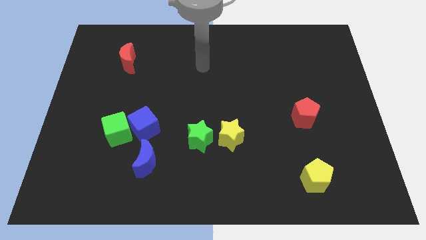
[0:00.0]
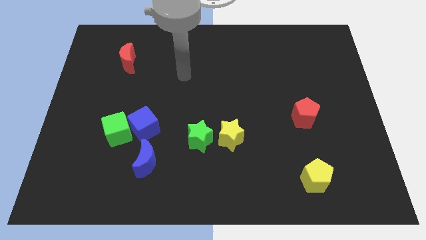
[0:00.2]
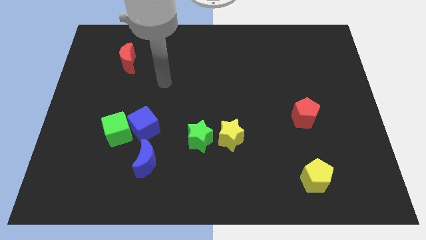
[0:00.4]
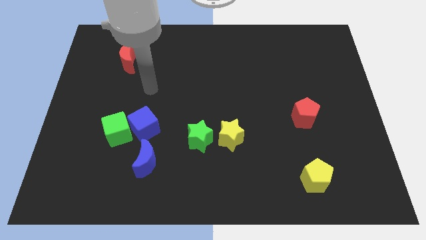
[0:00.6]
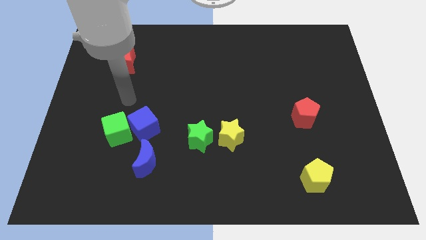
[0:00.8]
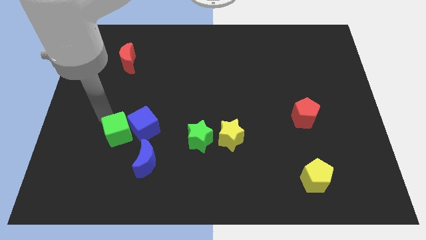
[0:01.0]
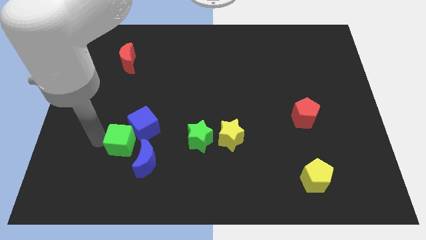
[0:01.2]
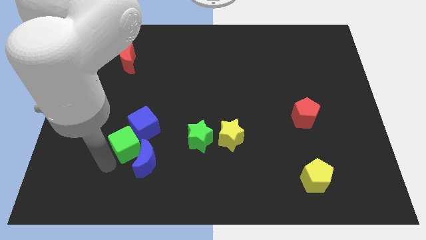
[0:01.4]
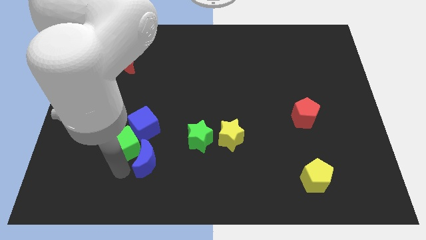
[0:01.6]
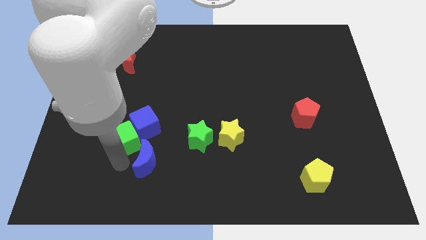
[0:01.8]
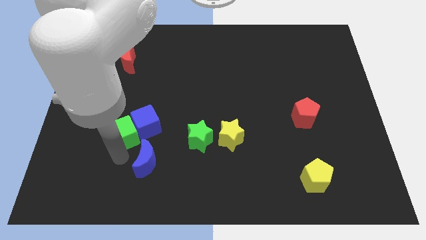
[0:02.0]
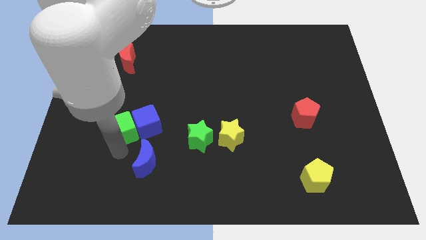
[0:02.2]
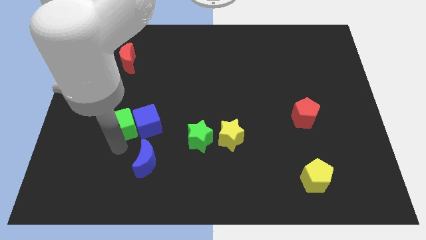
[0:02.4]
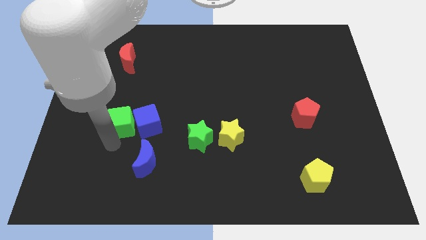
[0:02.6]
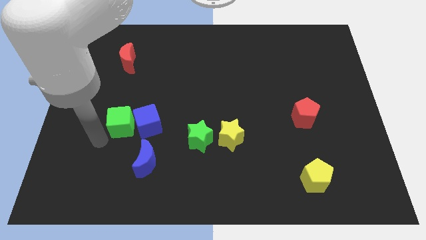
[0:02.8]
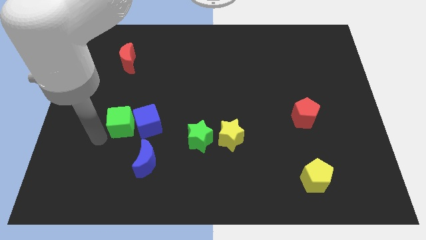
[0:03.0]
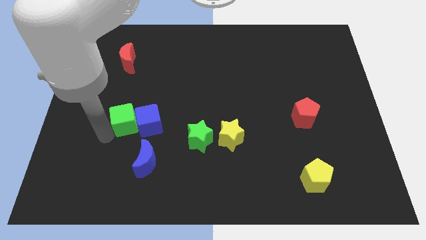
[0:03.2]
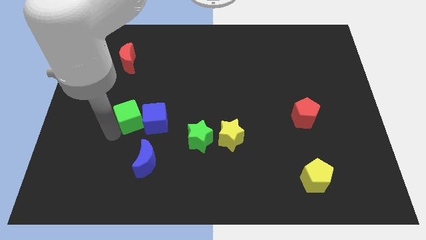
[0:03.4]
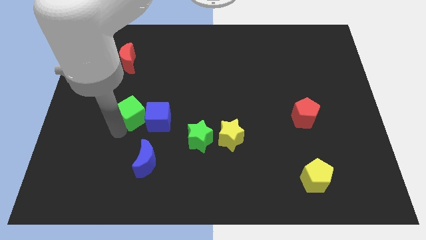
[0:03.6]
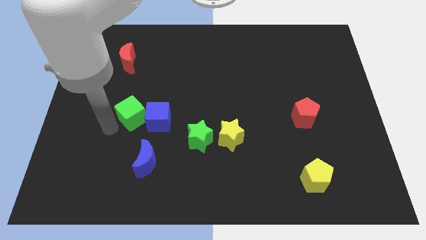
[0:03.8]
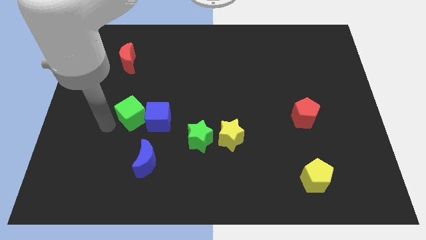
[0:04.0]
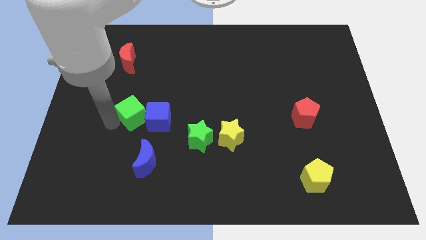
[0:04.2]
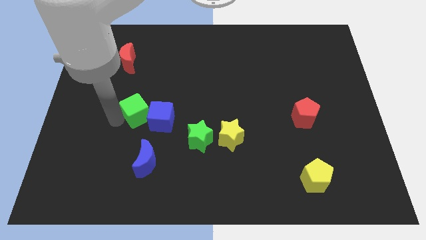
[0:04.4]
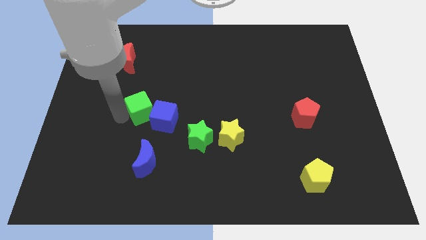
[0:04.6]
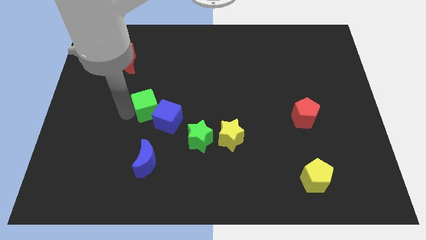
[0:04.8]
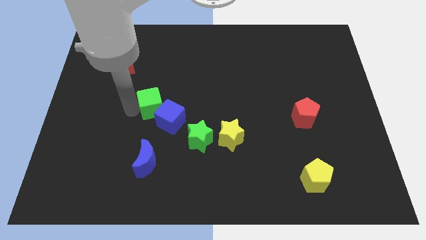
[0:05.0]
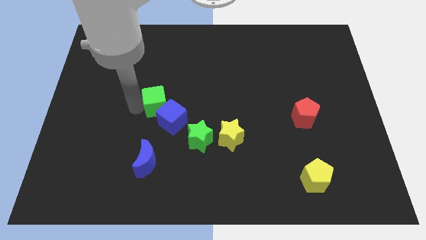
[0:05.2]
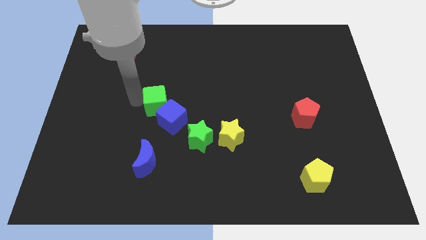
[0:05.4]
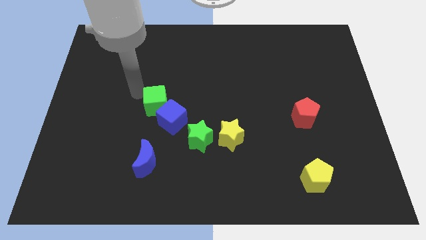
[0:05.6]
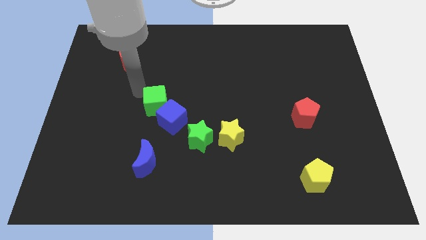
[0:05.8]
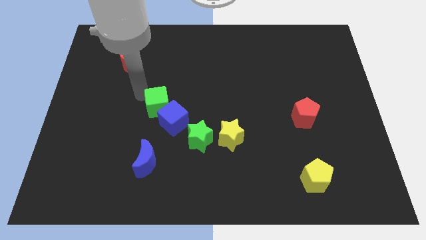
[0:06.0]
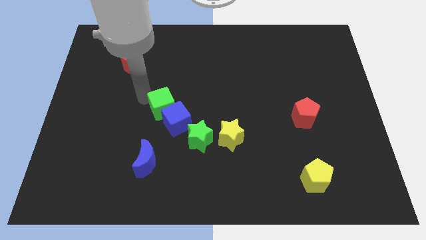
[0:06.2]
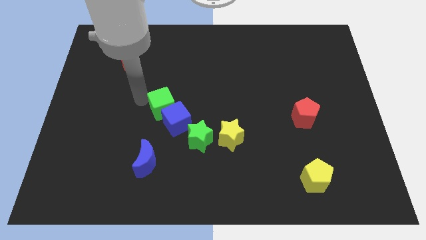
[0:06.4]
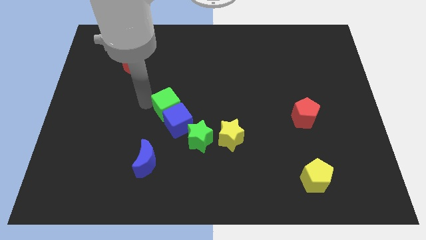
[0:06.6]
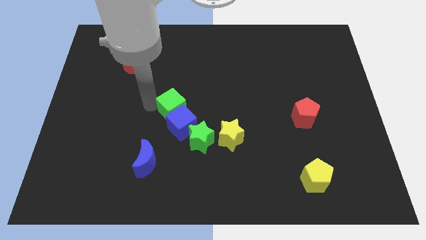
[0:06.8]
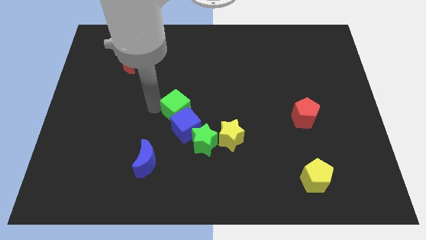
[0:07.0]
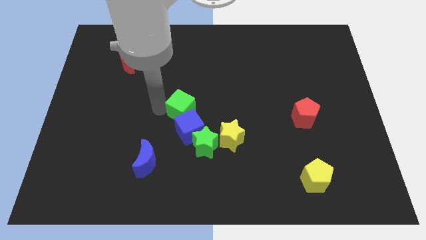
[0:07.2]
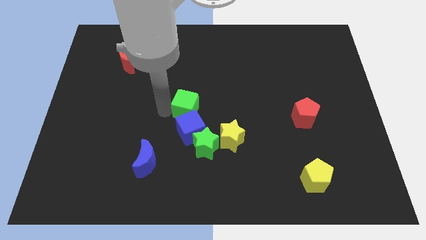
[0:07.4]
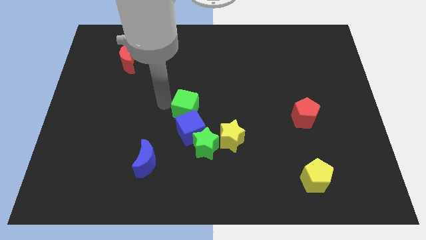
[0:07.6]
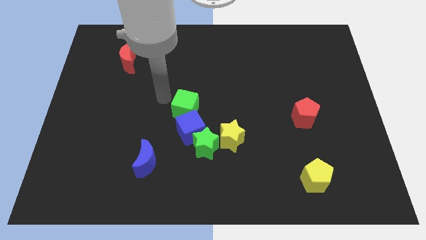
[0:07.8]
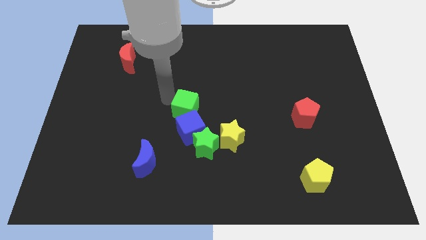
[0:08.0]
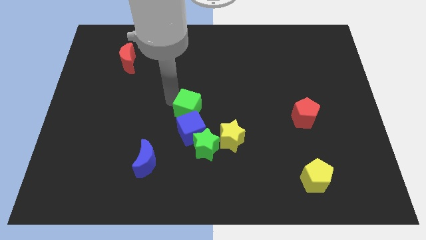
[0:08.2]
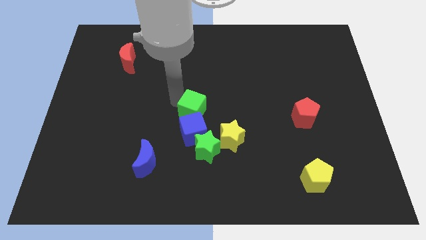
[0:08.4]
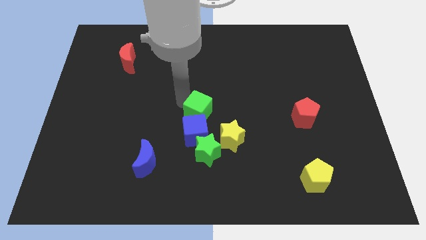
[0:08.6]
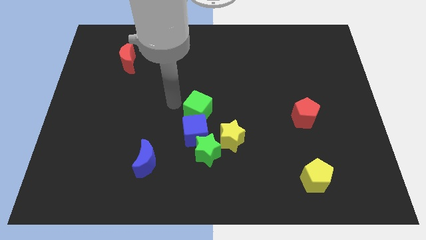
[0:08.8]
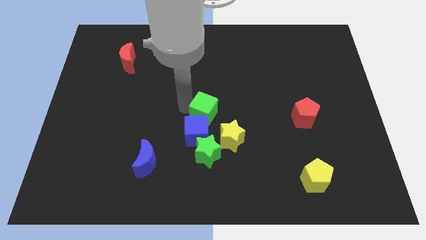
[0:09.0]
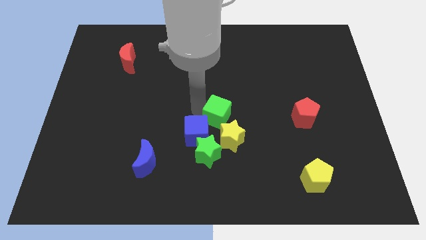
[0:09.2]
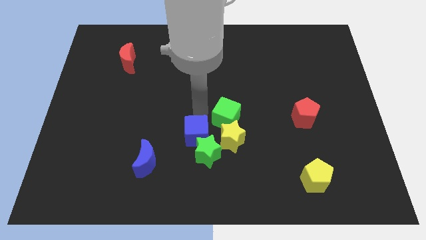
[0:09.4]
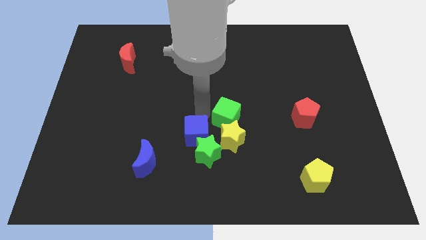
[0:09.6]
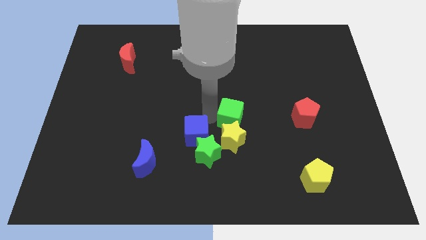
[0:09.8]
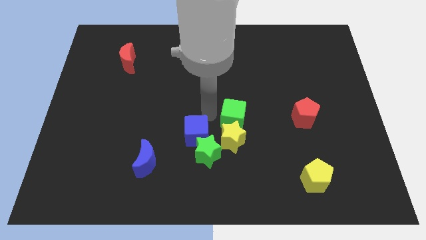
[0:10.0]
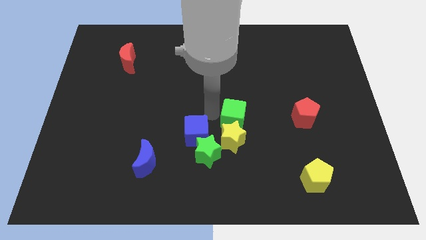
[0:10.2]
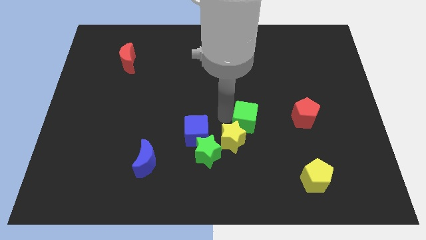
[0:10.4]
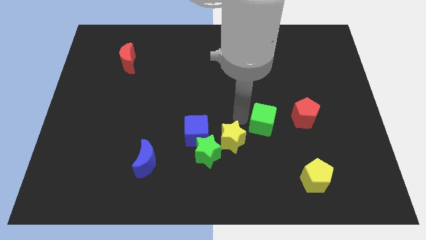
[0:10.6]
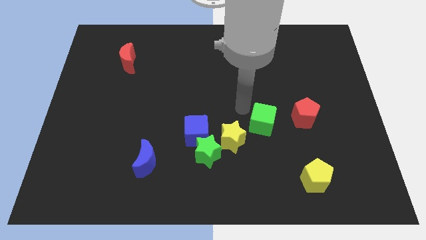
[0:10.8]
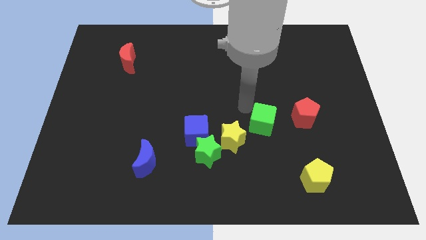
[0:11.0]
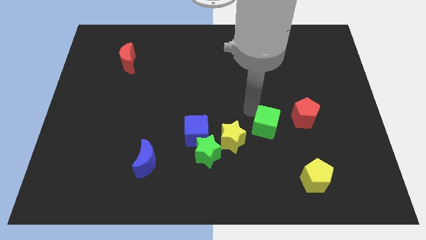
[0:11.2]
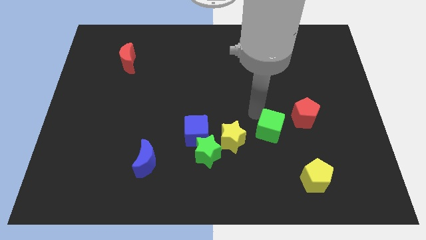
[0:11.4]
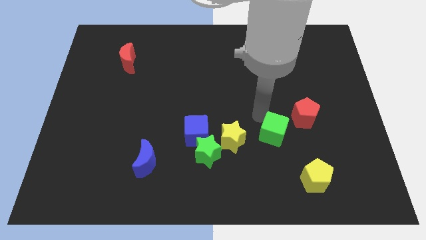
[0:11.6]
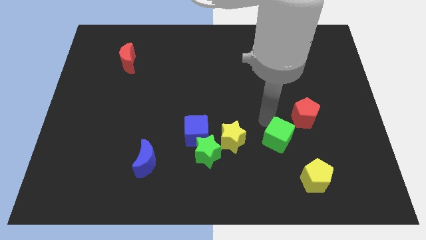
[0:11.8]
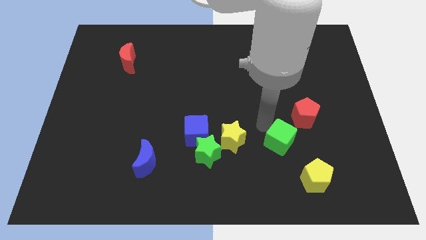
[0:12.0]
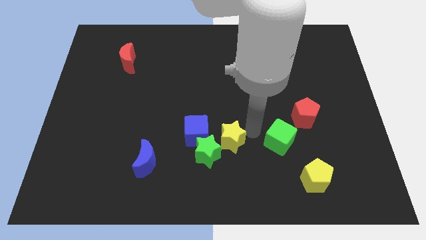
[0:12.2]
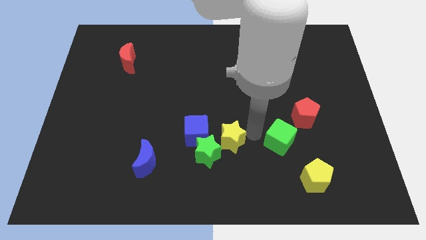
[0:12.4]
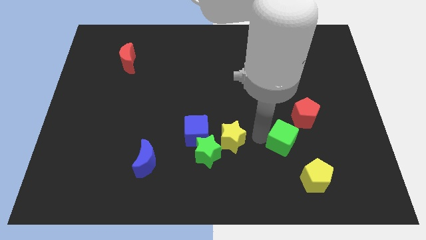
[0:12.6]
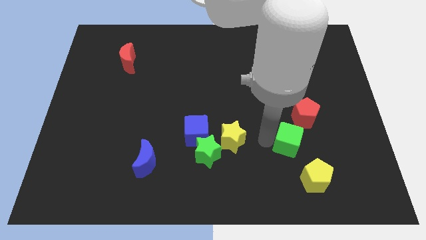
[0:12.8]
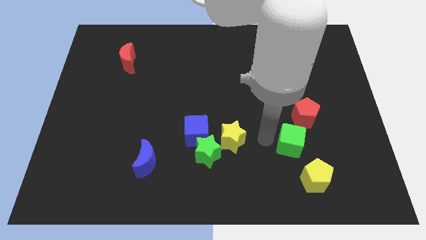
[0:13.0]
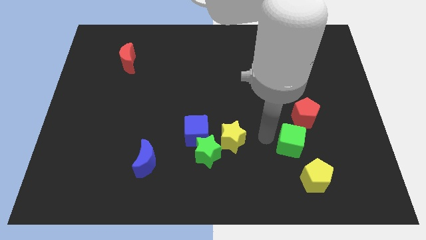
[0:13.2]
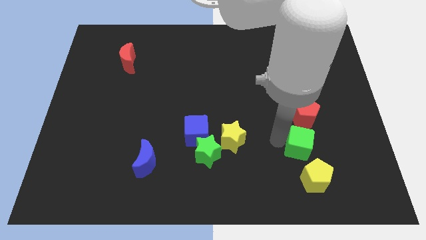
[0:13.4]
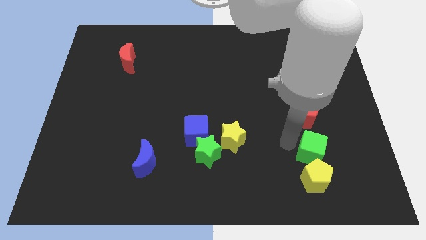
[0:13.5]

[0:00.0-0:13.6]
push the green cube to the top right of the yellow pentagon

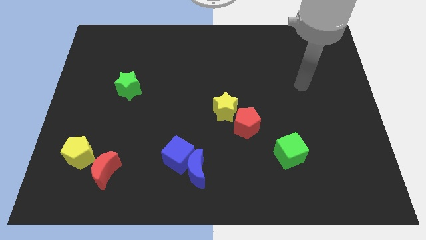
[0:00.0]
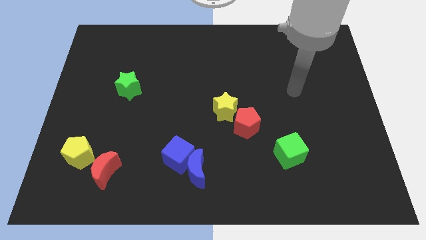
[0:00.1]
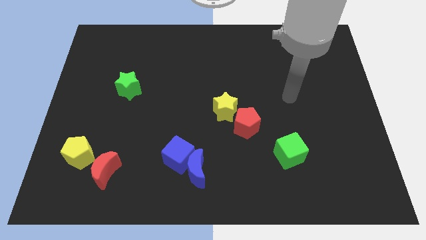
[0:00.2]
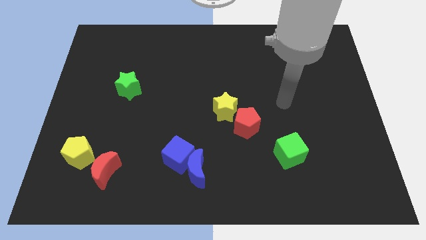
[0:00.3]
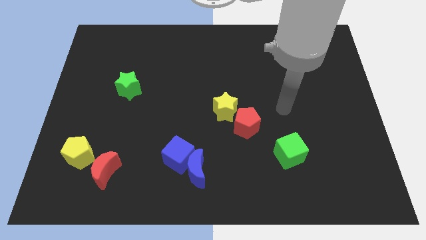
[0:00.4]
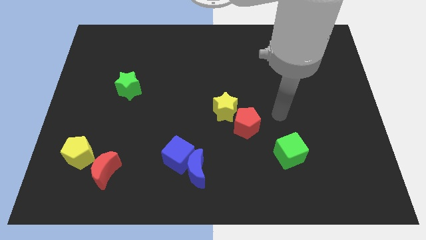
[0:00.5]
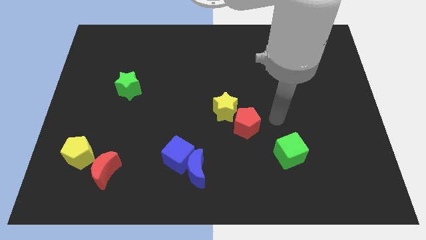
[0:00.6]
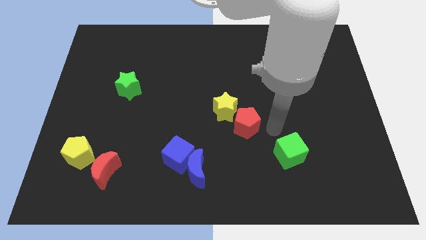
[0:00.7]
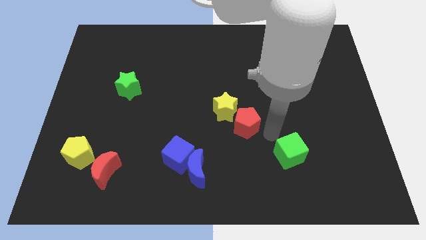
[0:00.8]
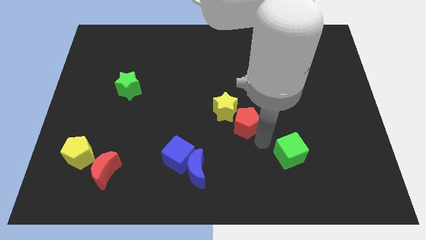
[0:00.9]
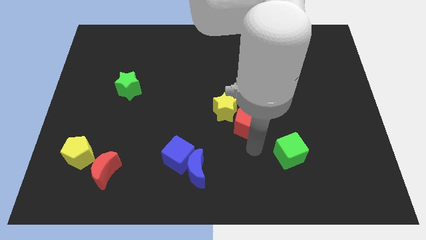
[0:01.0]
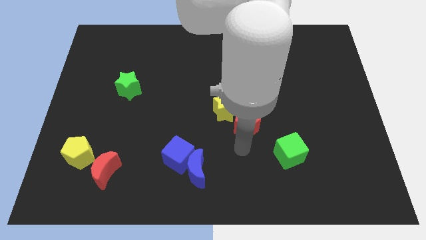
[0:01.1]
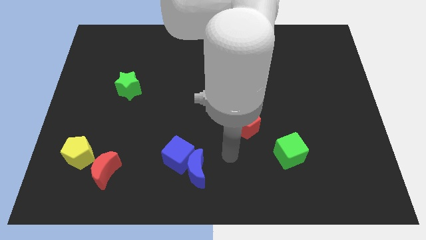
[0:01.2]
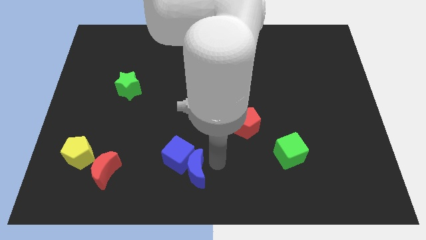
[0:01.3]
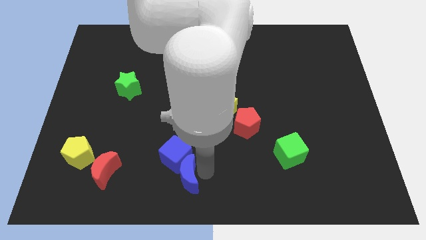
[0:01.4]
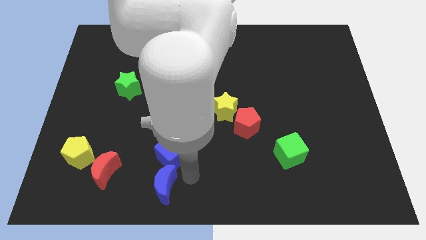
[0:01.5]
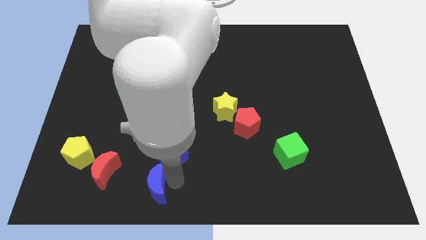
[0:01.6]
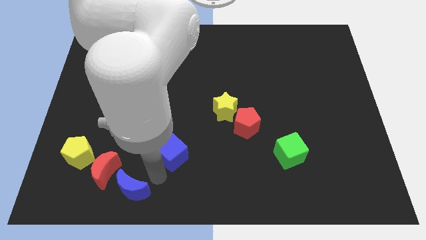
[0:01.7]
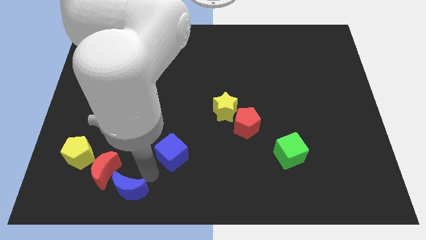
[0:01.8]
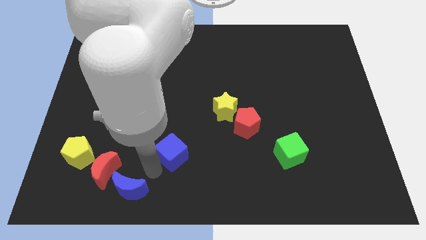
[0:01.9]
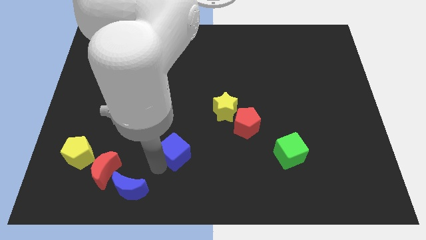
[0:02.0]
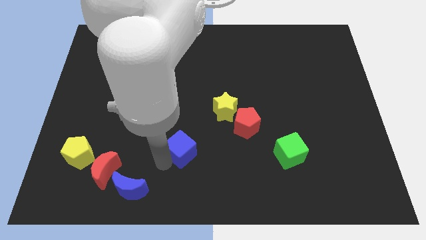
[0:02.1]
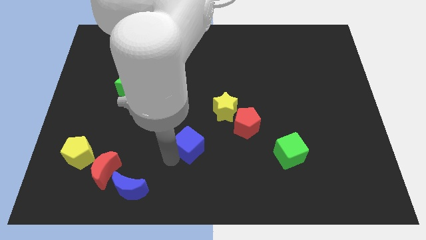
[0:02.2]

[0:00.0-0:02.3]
slide the blue cube to the bottom left side of the yellow star
